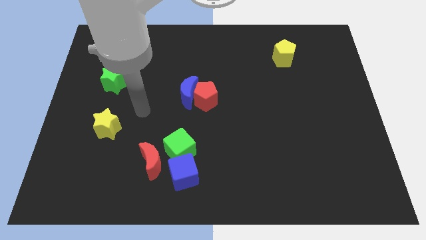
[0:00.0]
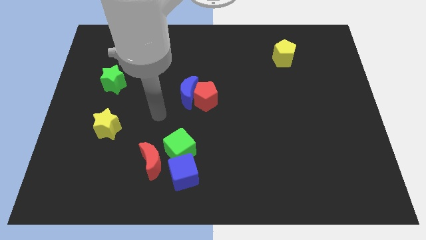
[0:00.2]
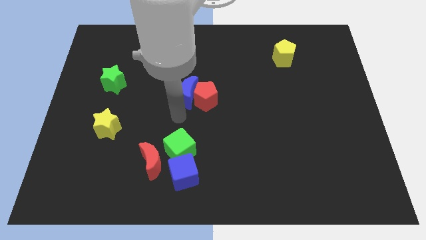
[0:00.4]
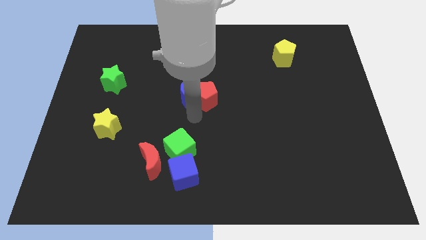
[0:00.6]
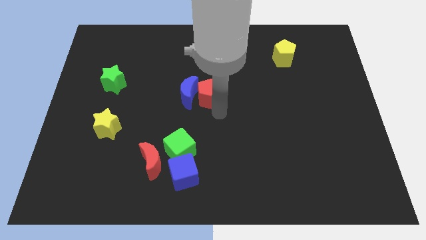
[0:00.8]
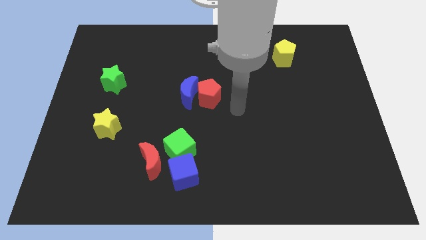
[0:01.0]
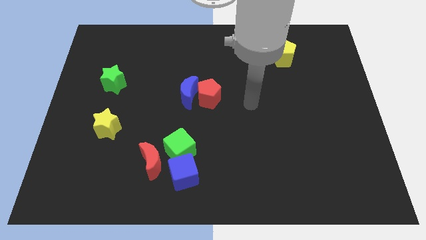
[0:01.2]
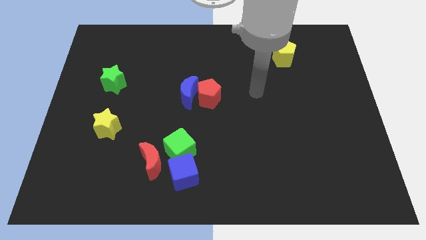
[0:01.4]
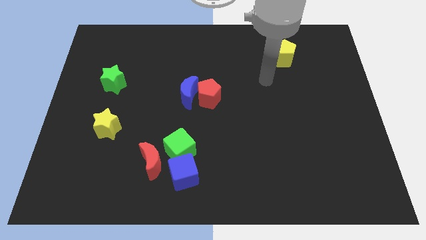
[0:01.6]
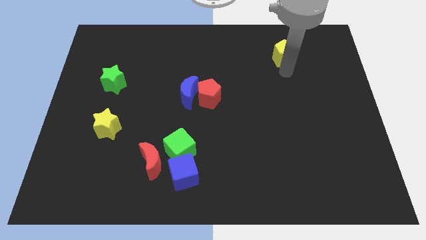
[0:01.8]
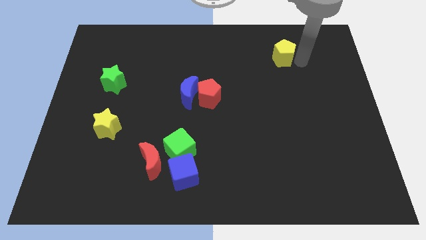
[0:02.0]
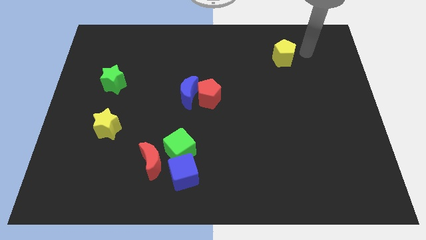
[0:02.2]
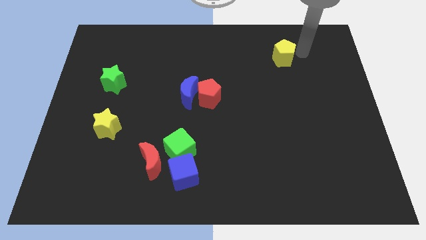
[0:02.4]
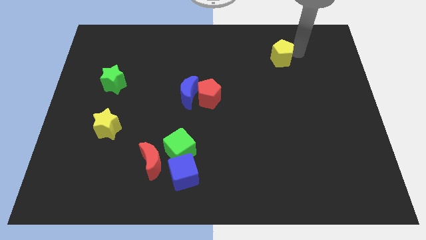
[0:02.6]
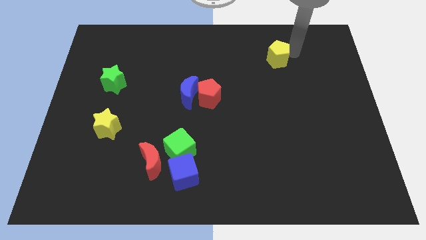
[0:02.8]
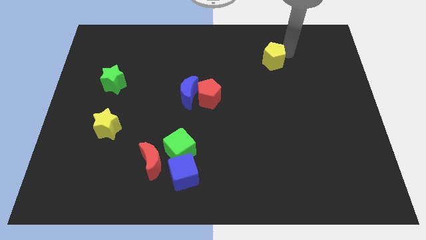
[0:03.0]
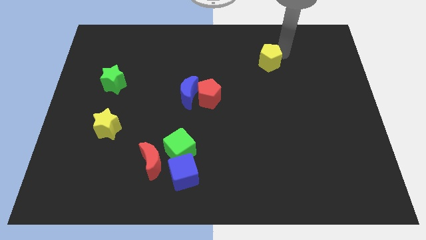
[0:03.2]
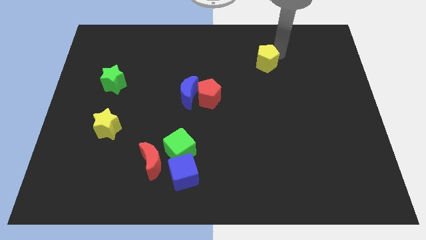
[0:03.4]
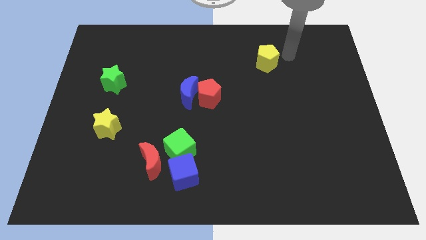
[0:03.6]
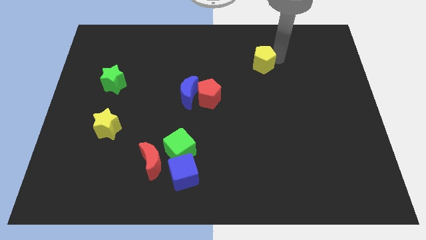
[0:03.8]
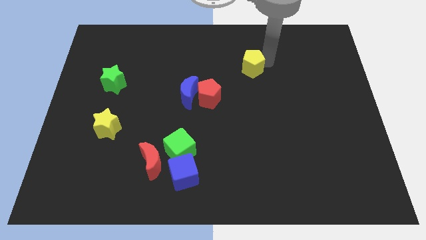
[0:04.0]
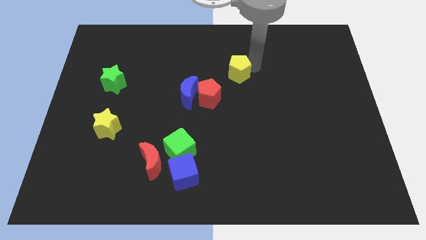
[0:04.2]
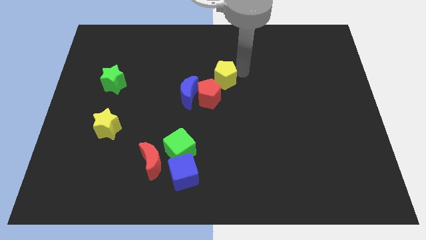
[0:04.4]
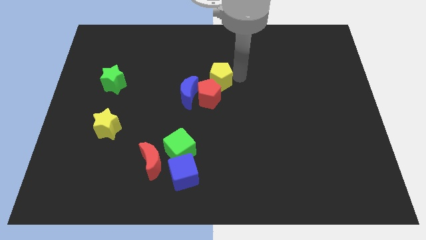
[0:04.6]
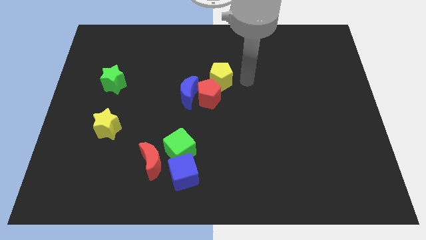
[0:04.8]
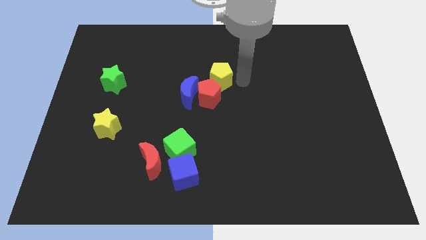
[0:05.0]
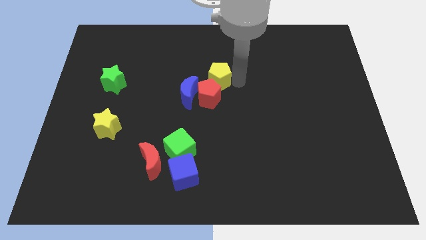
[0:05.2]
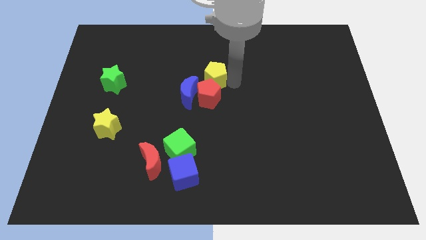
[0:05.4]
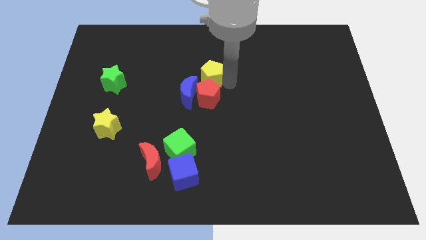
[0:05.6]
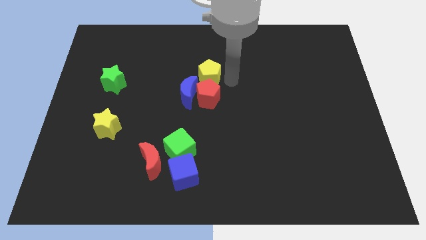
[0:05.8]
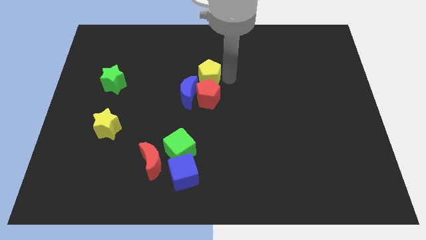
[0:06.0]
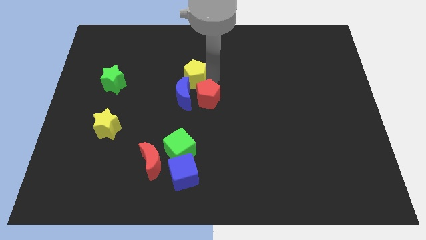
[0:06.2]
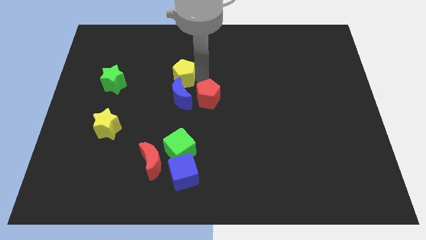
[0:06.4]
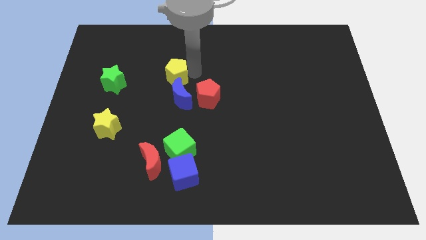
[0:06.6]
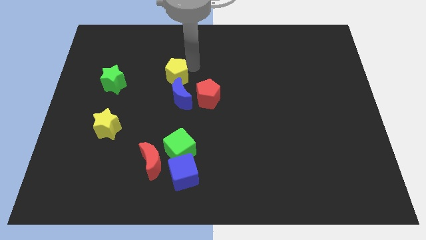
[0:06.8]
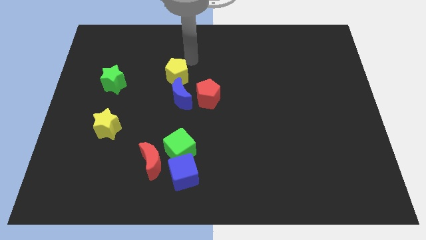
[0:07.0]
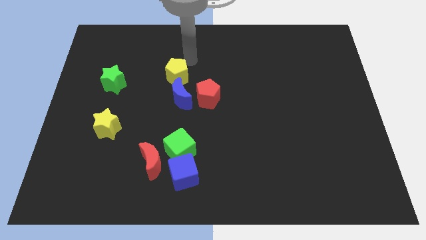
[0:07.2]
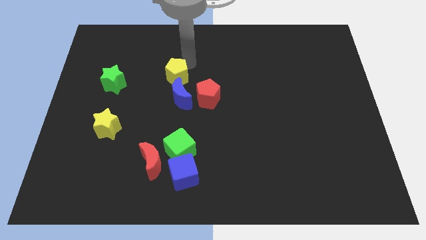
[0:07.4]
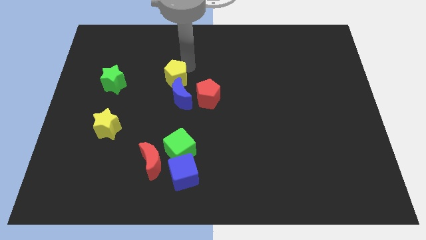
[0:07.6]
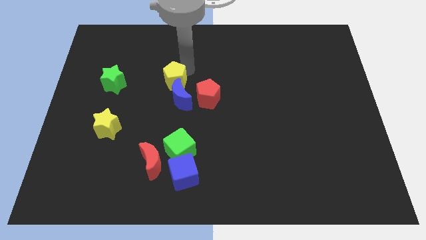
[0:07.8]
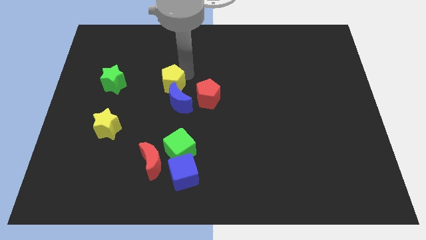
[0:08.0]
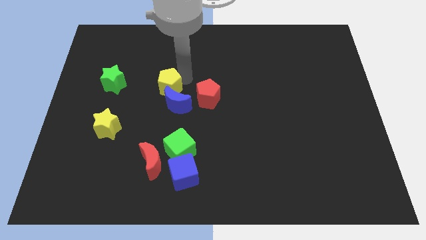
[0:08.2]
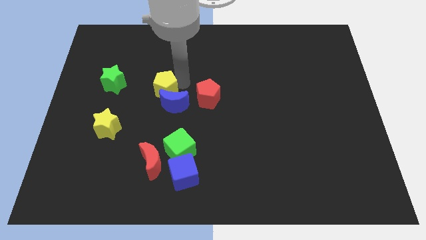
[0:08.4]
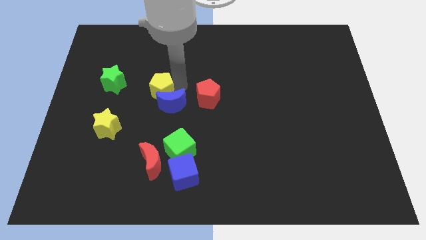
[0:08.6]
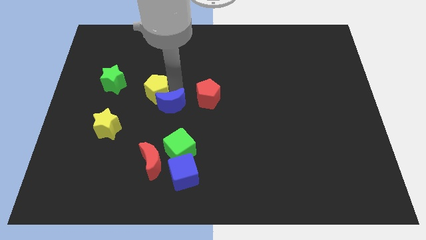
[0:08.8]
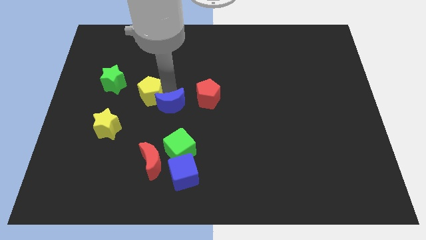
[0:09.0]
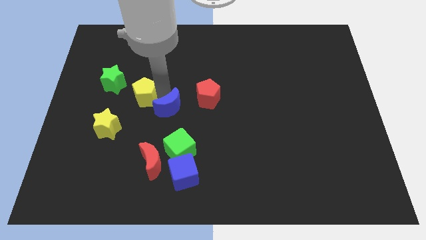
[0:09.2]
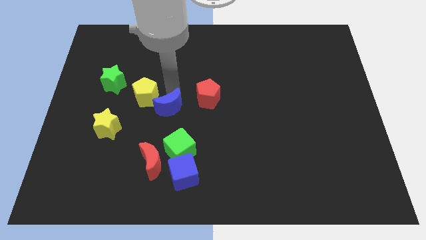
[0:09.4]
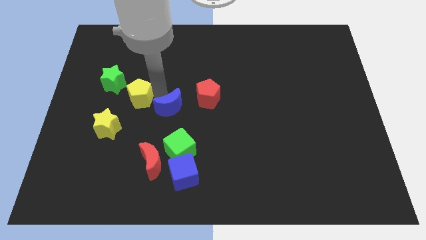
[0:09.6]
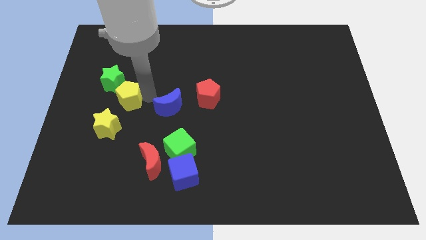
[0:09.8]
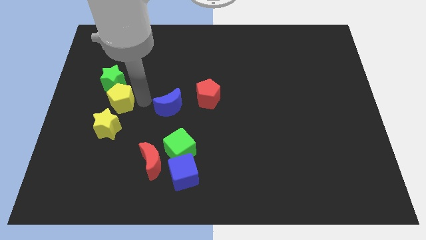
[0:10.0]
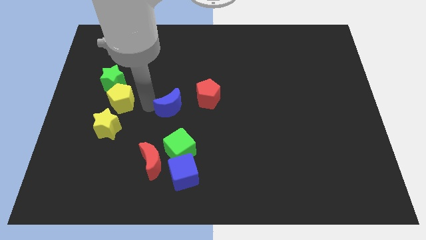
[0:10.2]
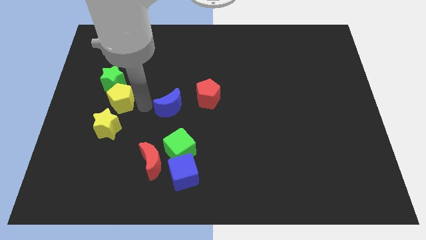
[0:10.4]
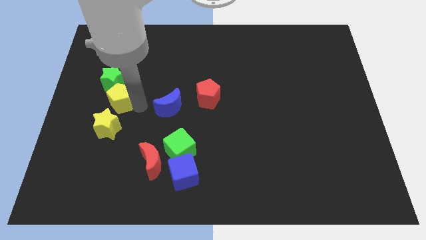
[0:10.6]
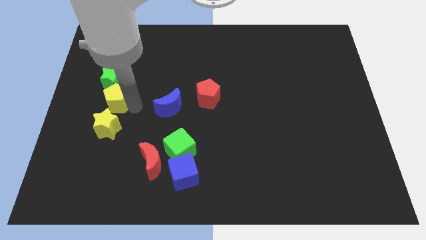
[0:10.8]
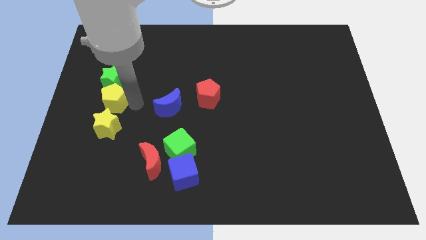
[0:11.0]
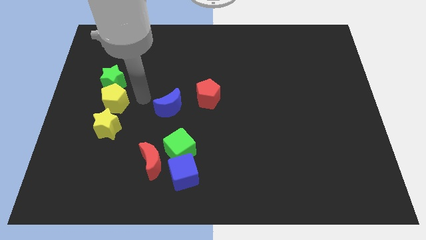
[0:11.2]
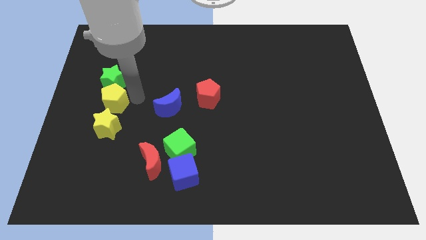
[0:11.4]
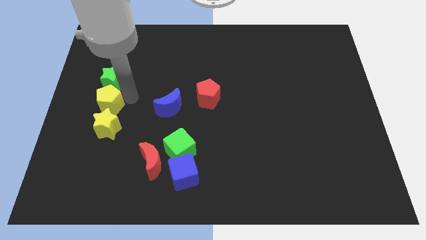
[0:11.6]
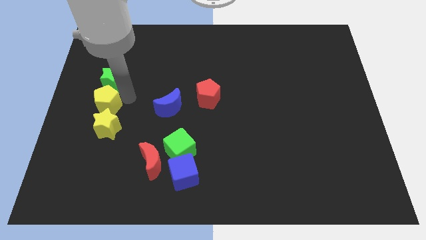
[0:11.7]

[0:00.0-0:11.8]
push the yellow pentagon to the center left
